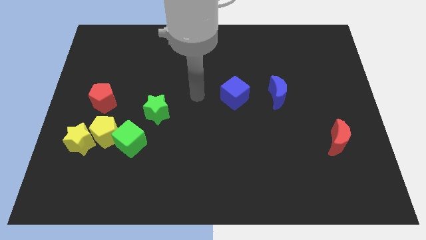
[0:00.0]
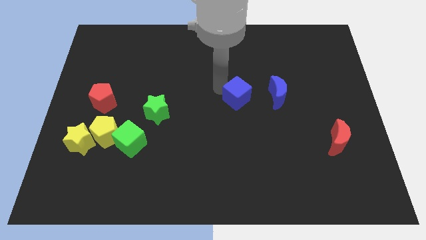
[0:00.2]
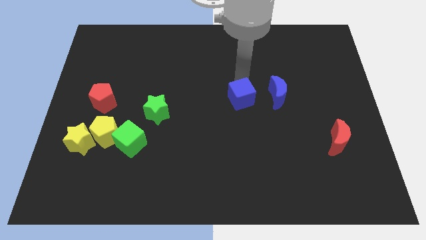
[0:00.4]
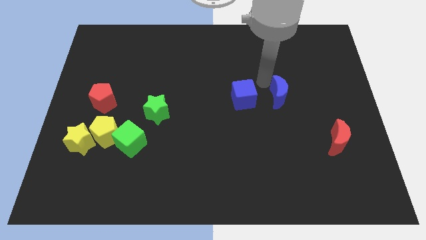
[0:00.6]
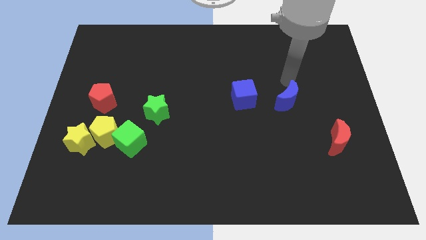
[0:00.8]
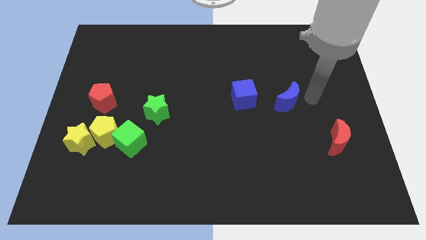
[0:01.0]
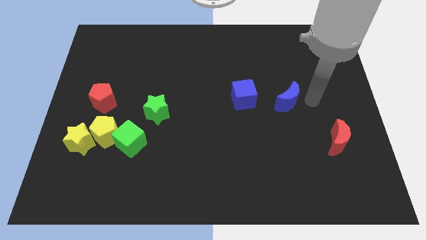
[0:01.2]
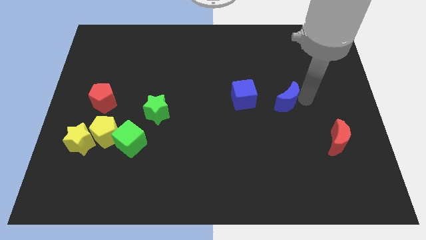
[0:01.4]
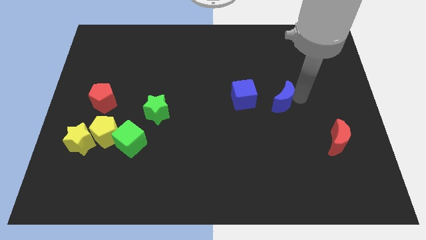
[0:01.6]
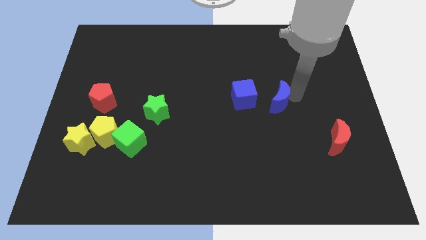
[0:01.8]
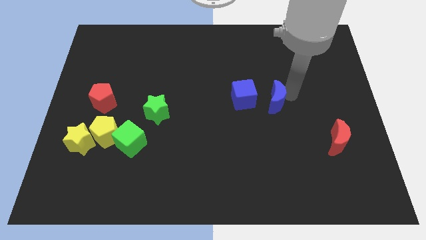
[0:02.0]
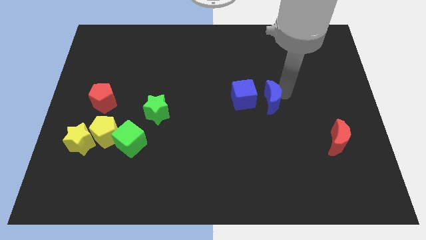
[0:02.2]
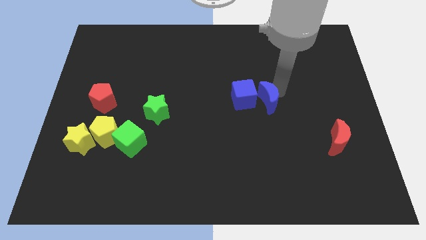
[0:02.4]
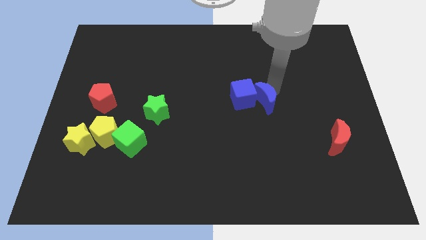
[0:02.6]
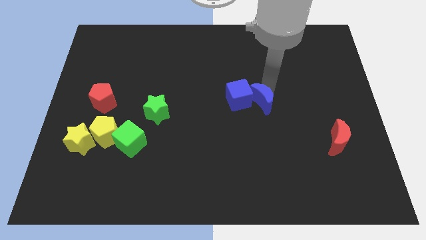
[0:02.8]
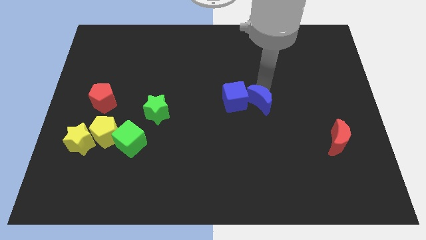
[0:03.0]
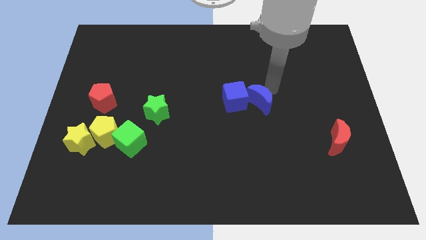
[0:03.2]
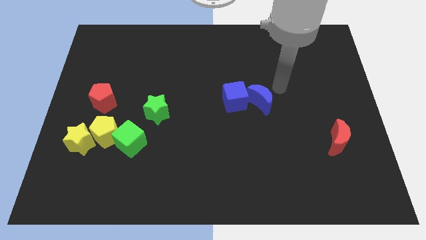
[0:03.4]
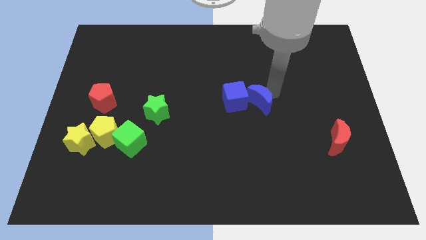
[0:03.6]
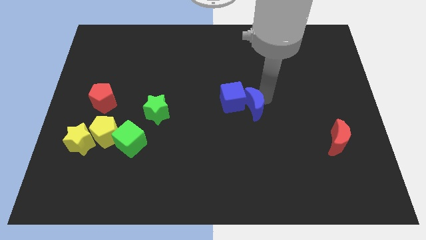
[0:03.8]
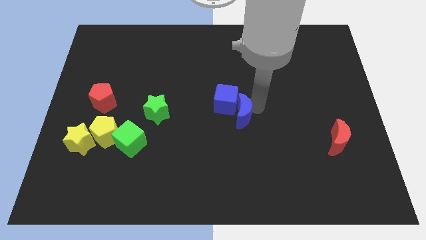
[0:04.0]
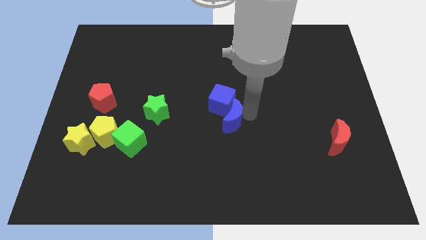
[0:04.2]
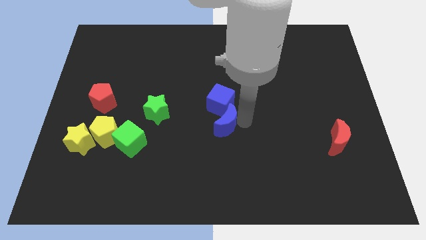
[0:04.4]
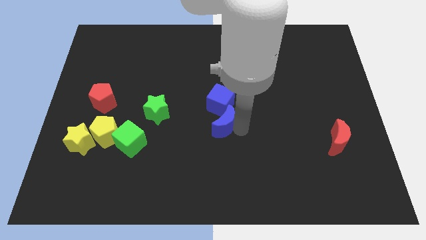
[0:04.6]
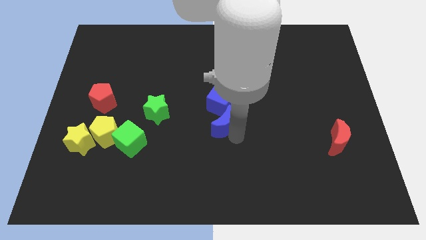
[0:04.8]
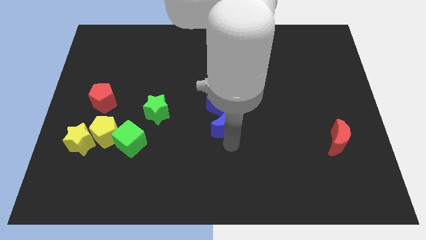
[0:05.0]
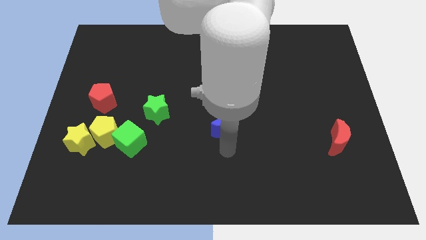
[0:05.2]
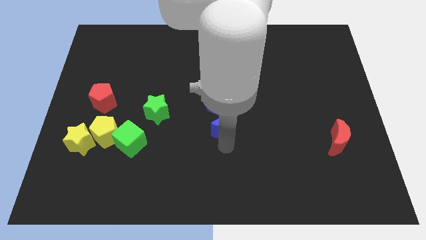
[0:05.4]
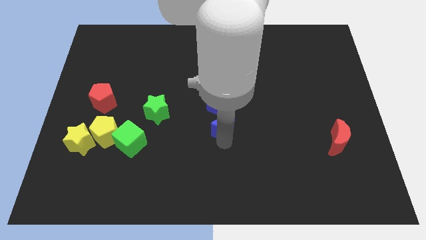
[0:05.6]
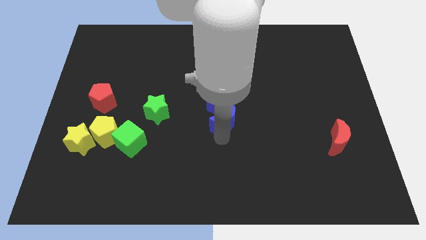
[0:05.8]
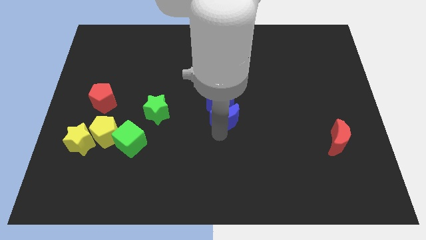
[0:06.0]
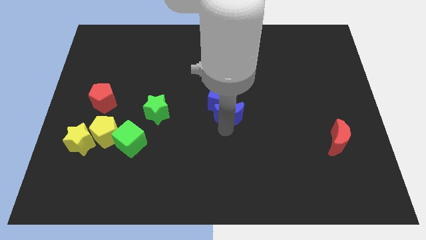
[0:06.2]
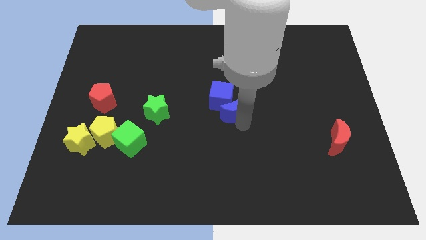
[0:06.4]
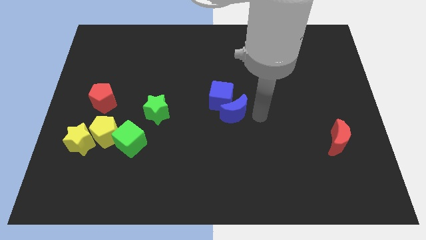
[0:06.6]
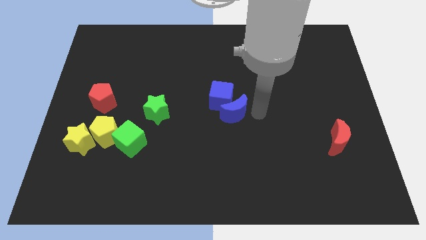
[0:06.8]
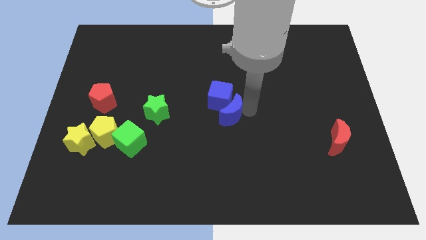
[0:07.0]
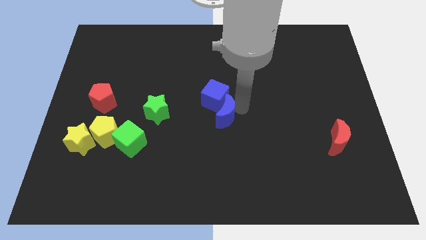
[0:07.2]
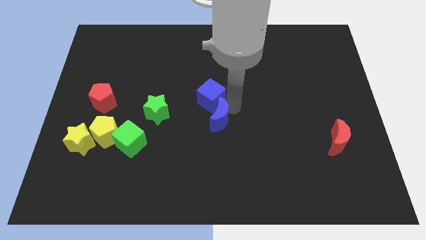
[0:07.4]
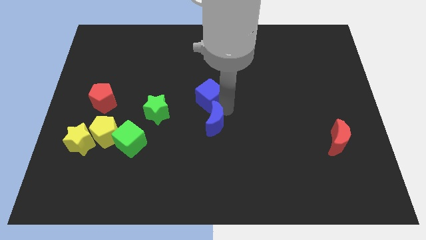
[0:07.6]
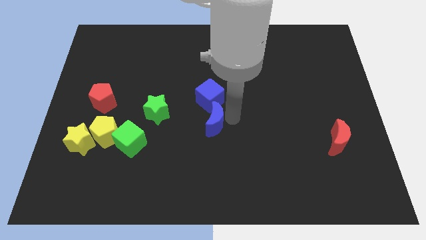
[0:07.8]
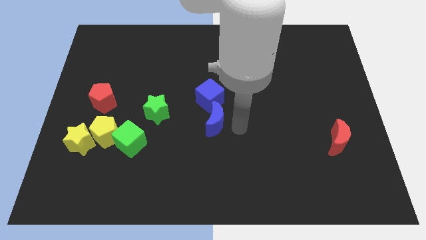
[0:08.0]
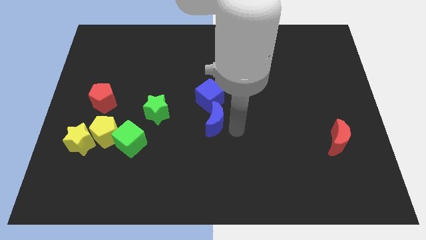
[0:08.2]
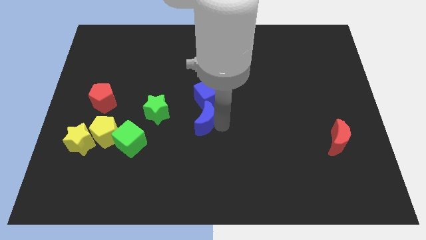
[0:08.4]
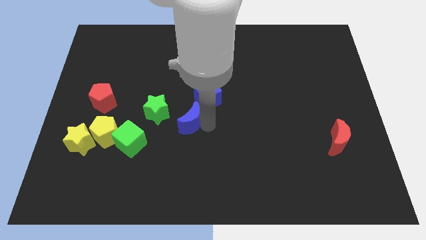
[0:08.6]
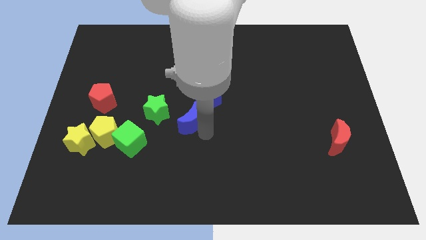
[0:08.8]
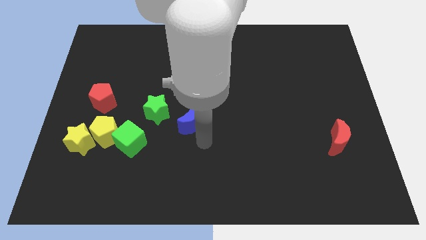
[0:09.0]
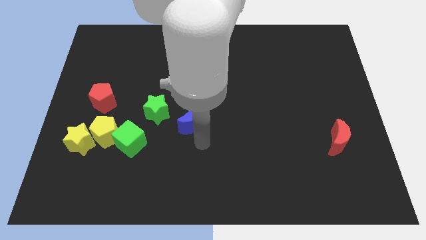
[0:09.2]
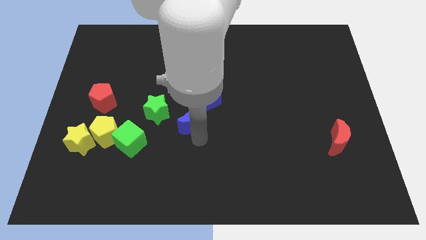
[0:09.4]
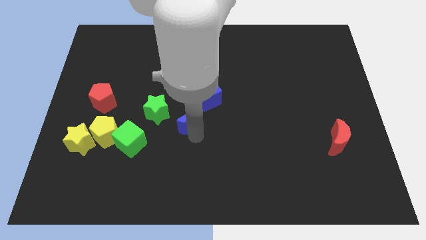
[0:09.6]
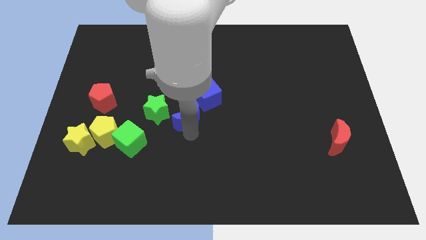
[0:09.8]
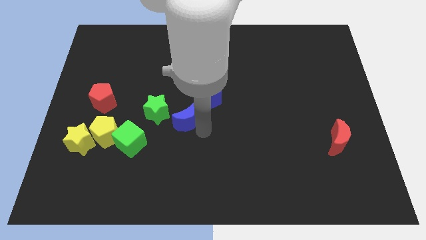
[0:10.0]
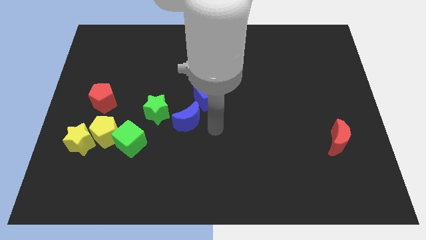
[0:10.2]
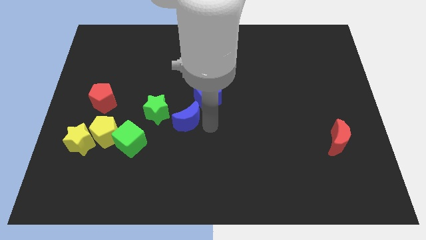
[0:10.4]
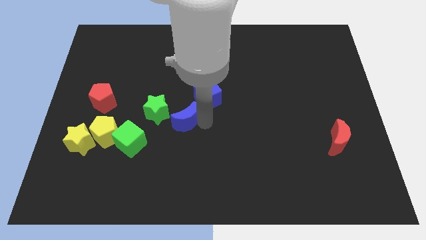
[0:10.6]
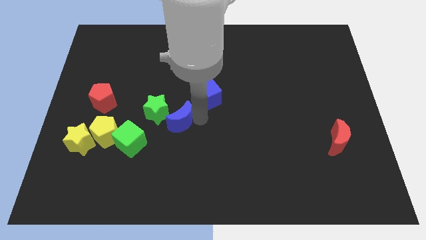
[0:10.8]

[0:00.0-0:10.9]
push the blue moon to the green star

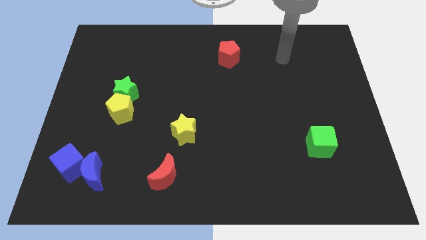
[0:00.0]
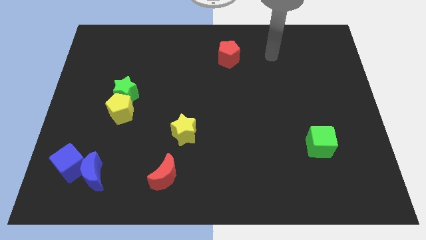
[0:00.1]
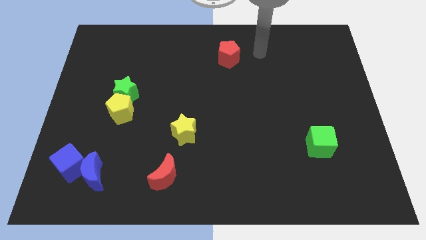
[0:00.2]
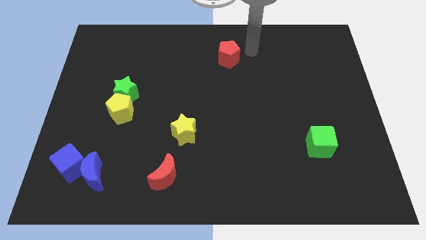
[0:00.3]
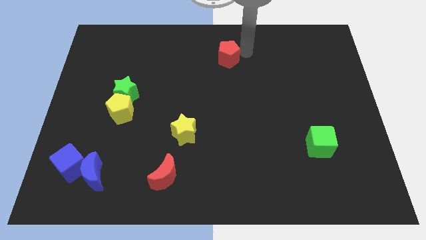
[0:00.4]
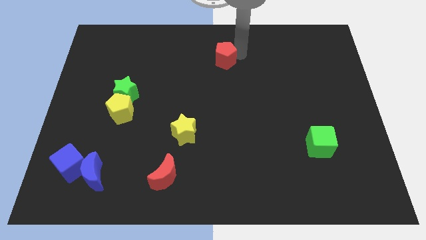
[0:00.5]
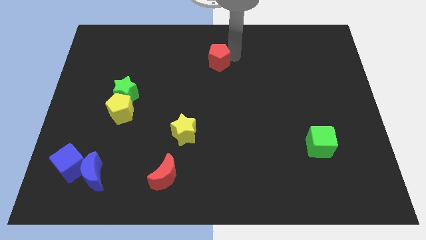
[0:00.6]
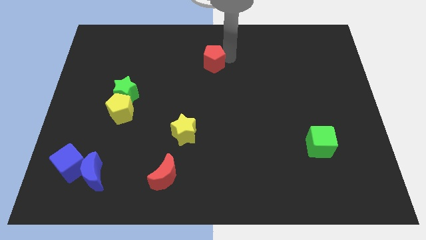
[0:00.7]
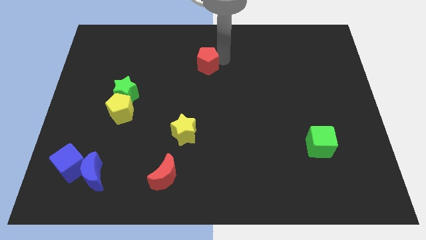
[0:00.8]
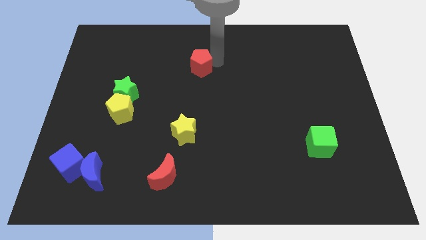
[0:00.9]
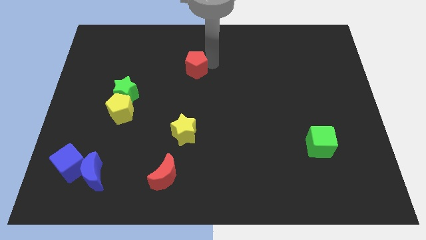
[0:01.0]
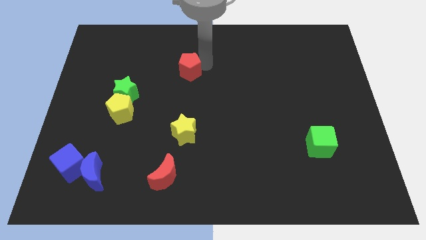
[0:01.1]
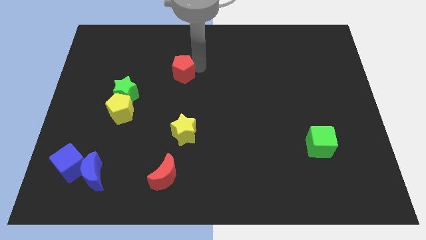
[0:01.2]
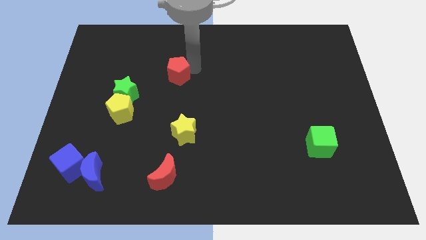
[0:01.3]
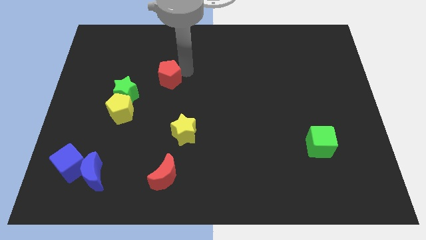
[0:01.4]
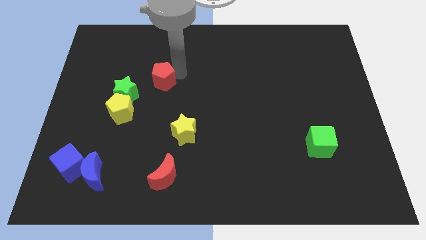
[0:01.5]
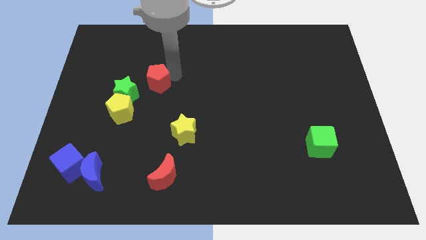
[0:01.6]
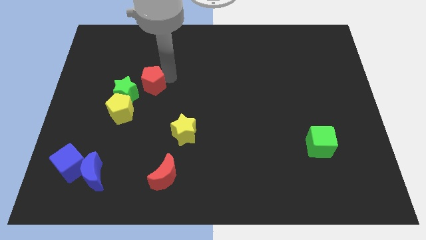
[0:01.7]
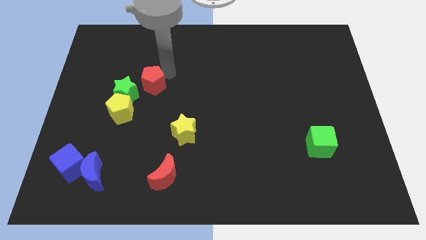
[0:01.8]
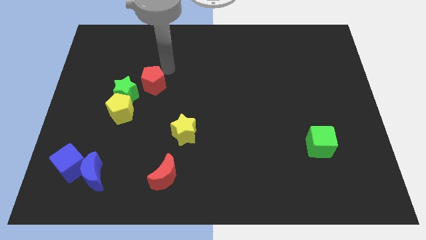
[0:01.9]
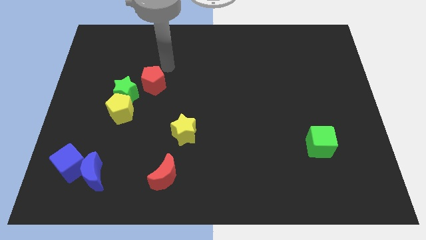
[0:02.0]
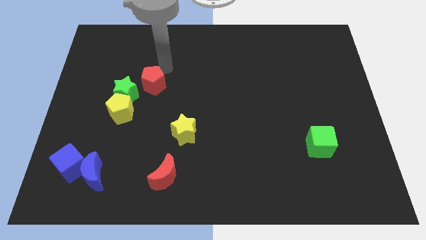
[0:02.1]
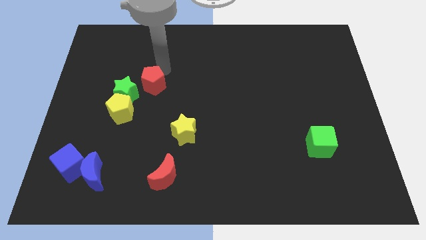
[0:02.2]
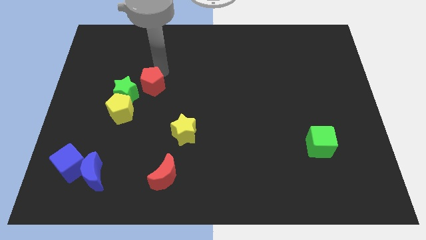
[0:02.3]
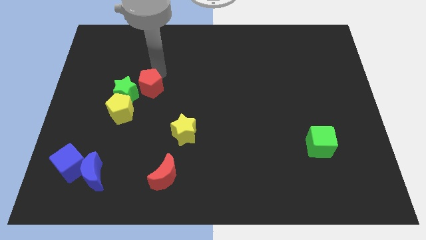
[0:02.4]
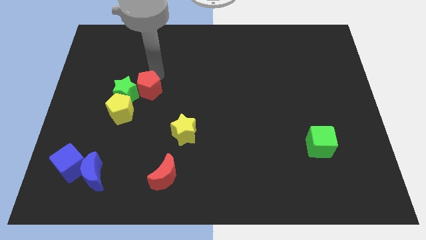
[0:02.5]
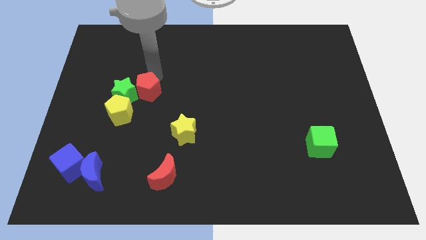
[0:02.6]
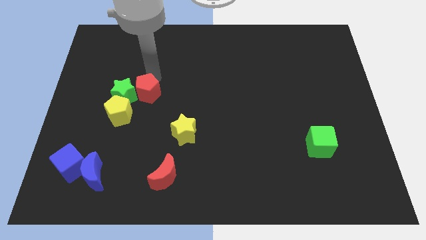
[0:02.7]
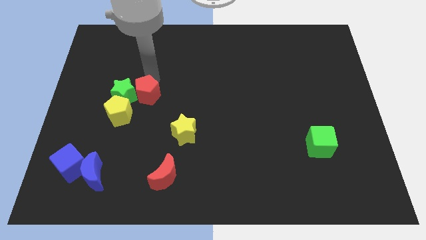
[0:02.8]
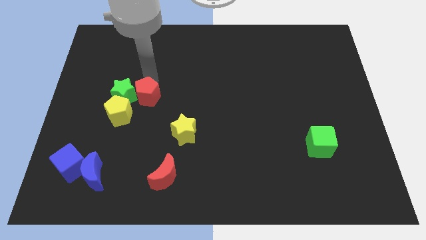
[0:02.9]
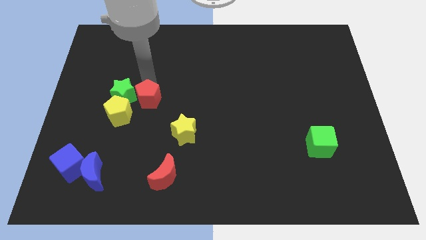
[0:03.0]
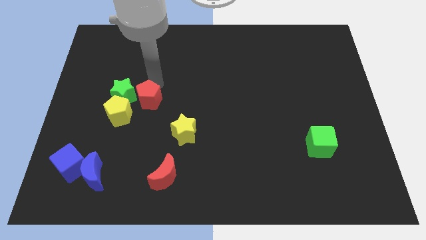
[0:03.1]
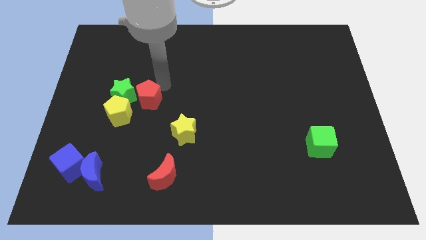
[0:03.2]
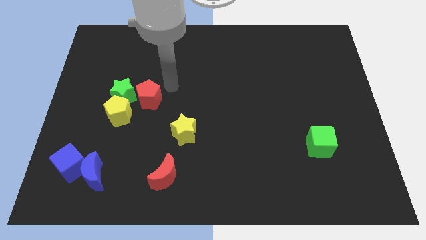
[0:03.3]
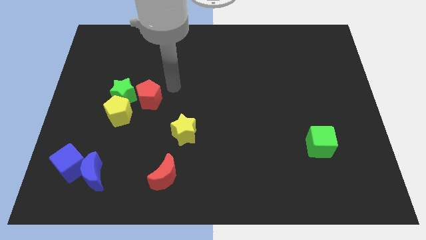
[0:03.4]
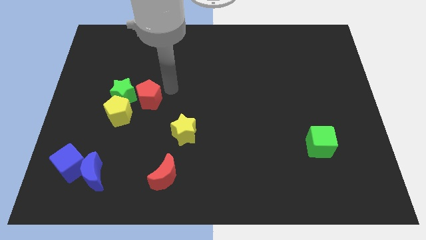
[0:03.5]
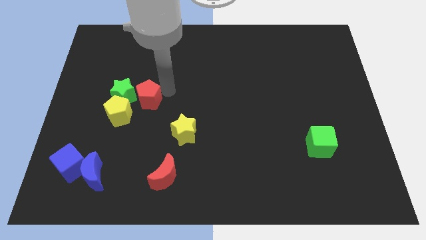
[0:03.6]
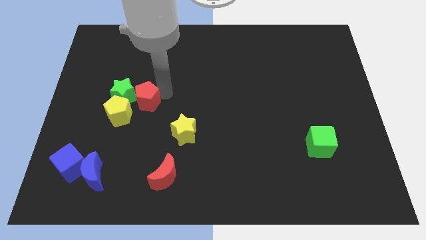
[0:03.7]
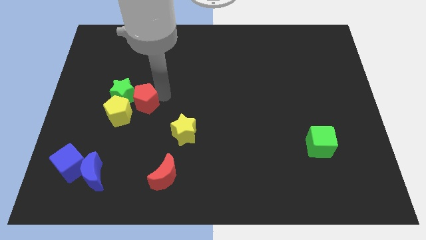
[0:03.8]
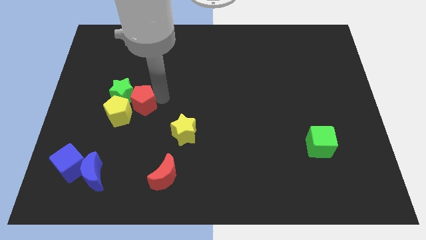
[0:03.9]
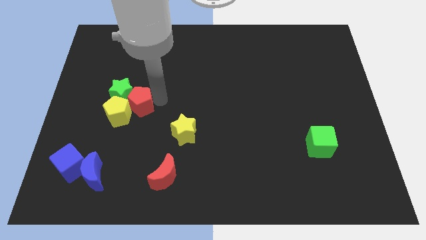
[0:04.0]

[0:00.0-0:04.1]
move the red pentagon close to the yellow pentagon
